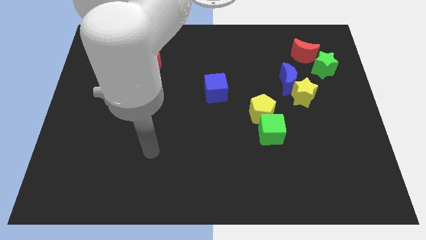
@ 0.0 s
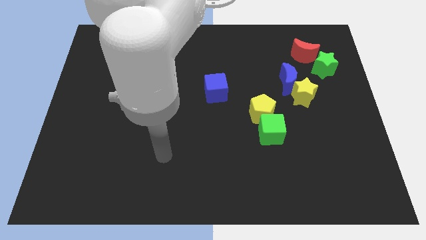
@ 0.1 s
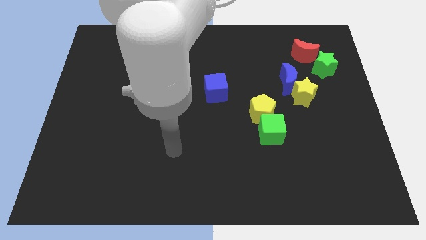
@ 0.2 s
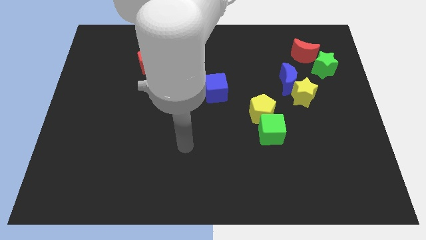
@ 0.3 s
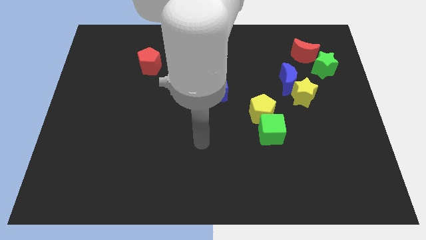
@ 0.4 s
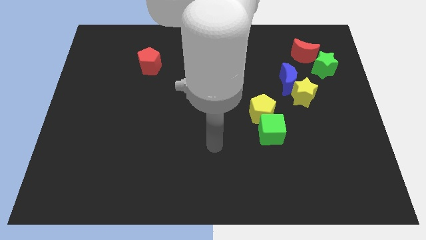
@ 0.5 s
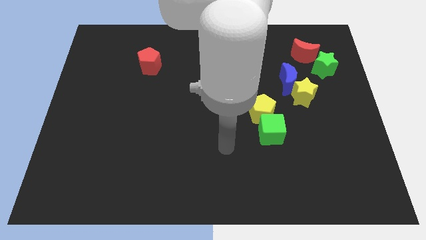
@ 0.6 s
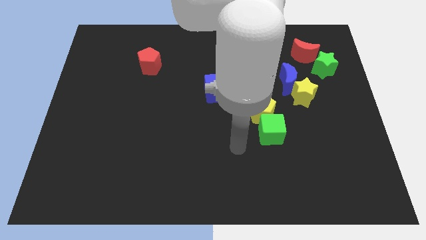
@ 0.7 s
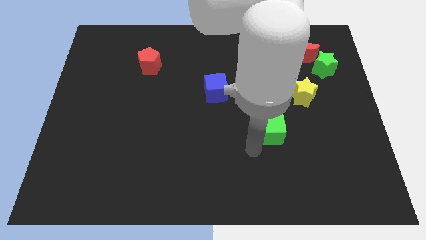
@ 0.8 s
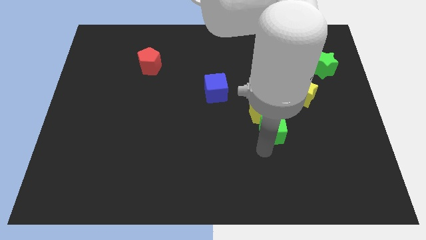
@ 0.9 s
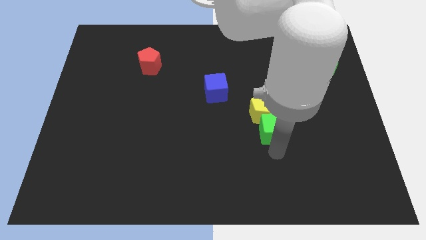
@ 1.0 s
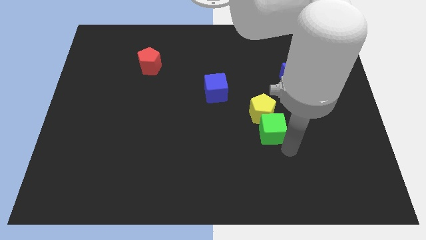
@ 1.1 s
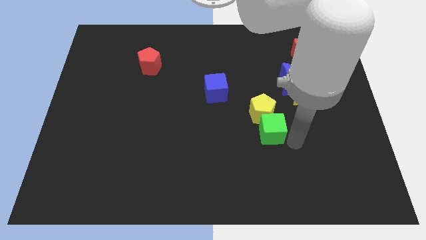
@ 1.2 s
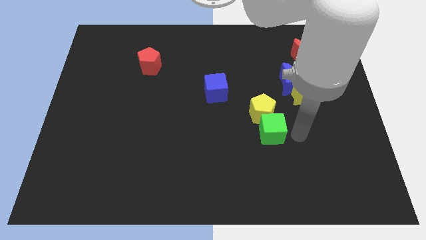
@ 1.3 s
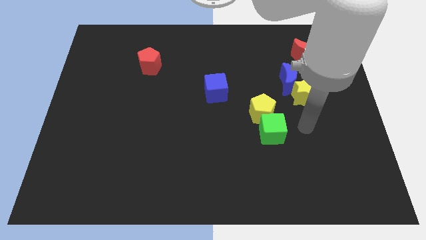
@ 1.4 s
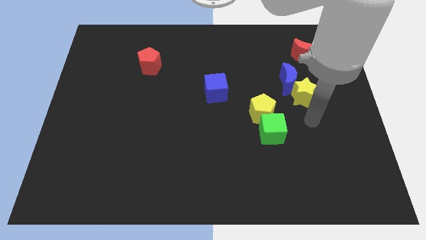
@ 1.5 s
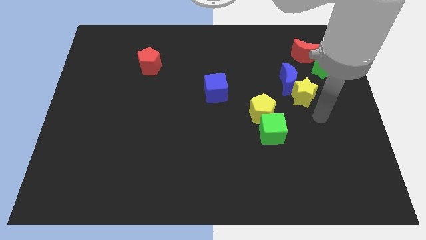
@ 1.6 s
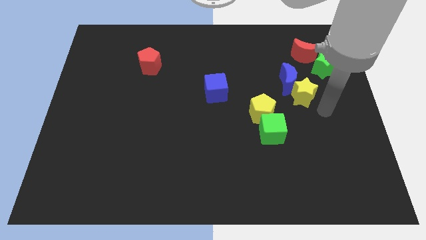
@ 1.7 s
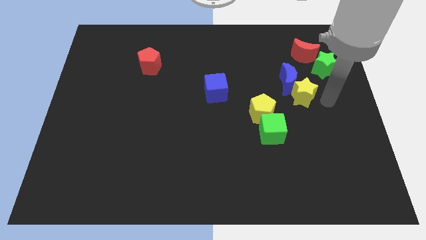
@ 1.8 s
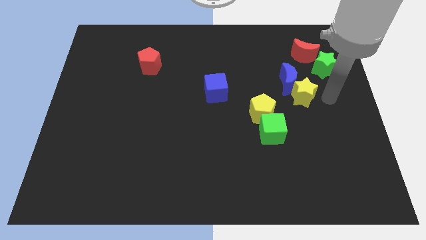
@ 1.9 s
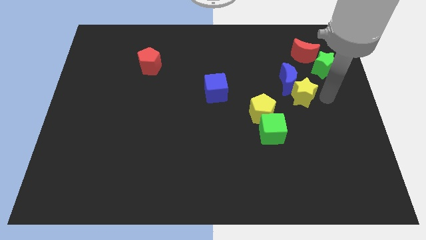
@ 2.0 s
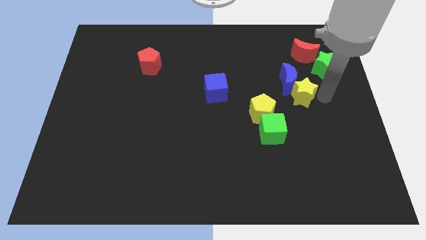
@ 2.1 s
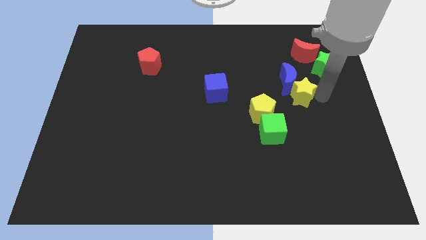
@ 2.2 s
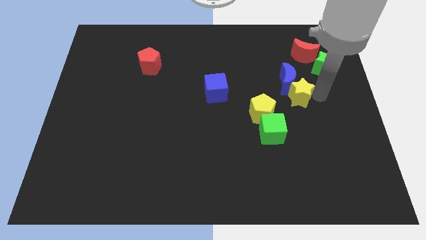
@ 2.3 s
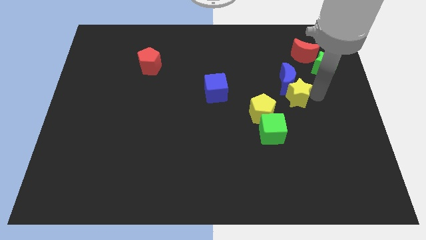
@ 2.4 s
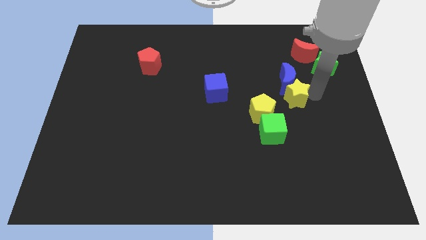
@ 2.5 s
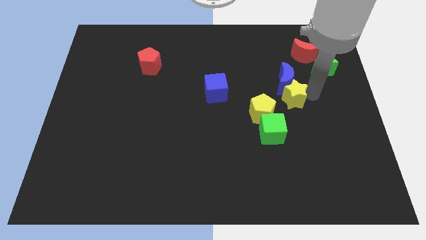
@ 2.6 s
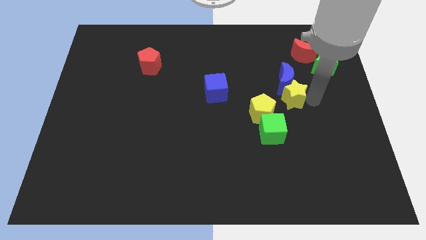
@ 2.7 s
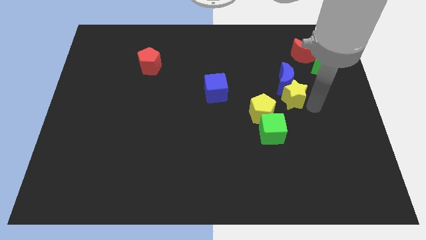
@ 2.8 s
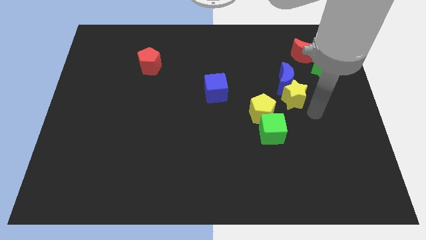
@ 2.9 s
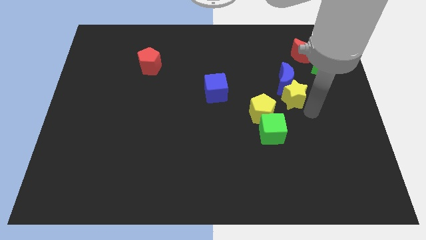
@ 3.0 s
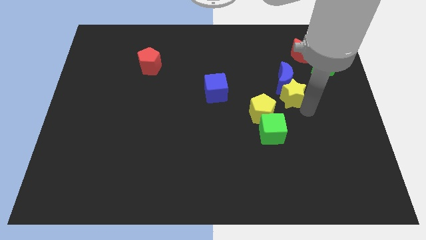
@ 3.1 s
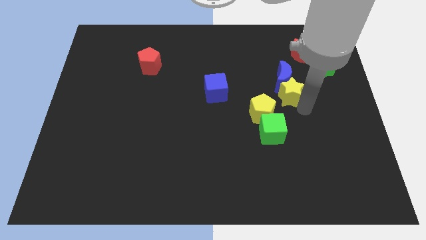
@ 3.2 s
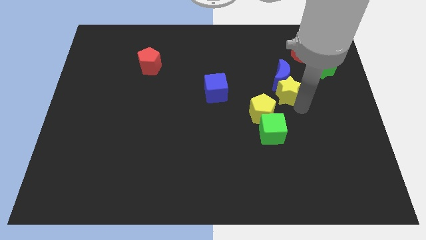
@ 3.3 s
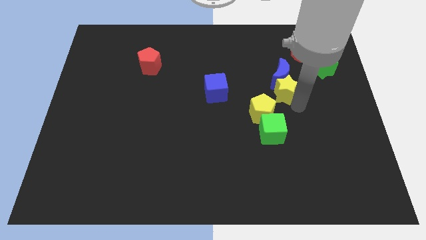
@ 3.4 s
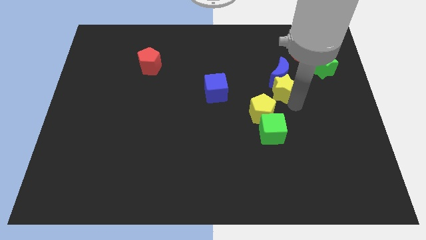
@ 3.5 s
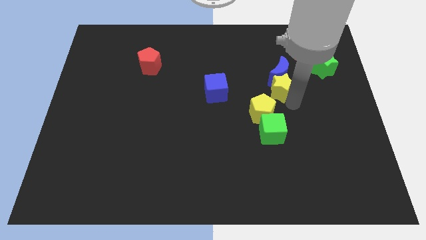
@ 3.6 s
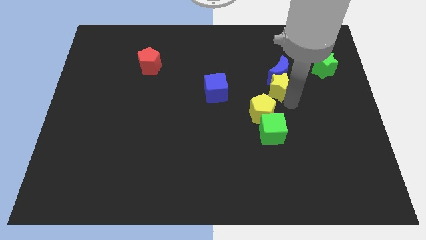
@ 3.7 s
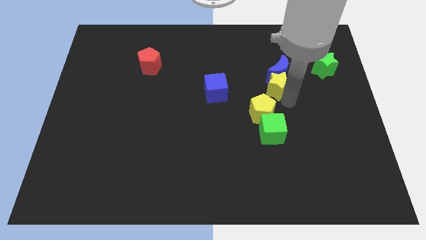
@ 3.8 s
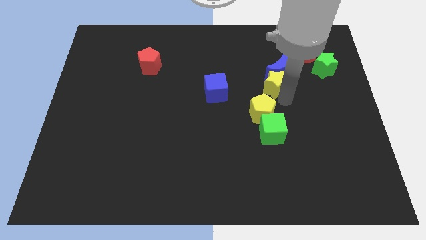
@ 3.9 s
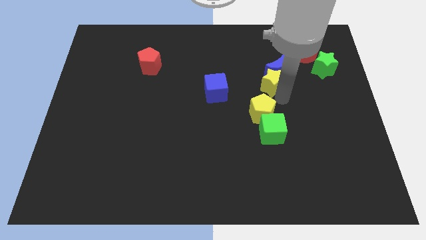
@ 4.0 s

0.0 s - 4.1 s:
push the yellow star a little bit upwards and then left

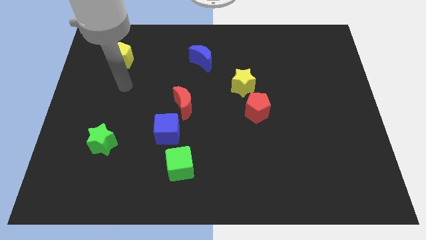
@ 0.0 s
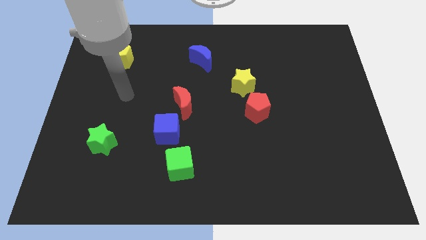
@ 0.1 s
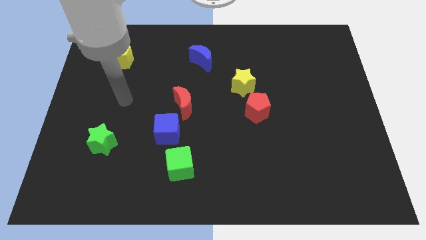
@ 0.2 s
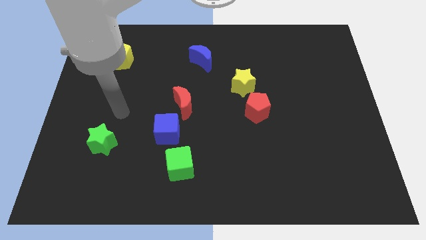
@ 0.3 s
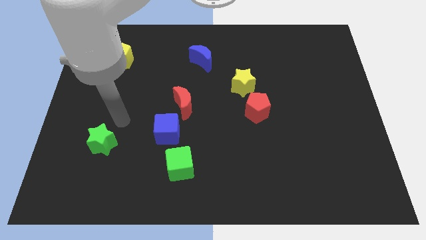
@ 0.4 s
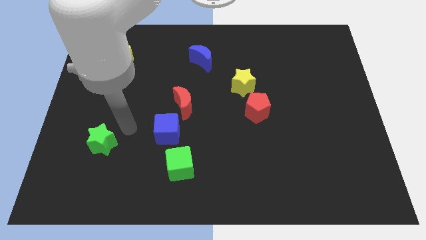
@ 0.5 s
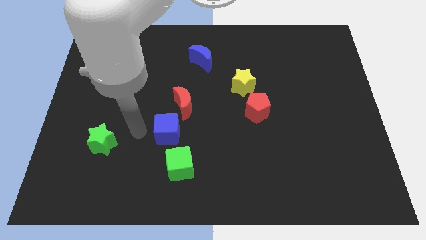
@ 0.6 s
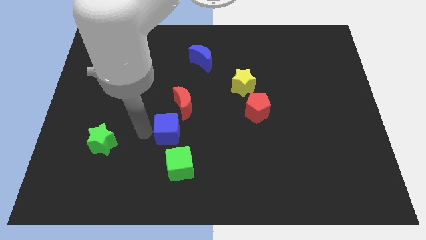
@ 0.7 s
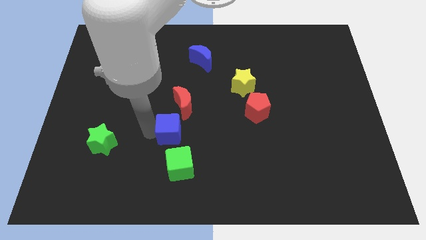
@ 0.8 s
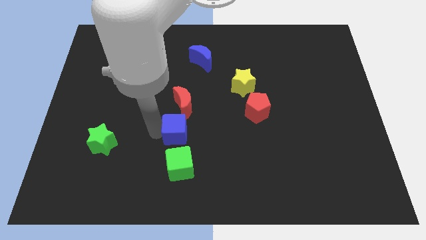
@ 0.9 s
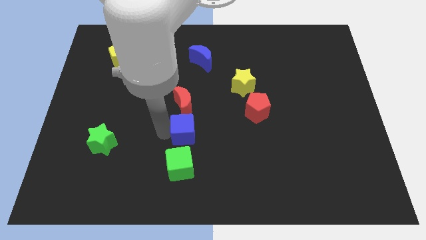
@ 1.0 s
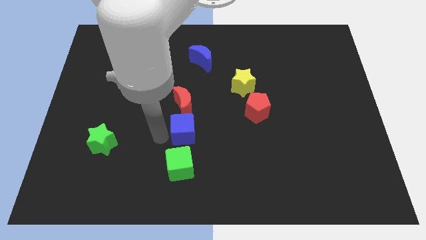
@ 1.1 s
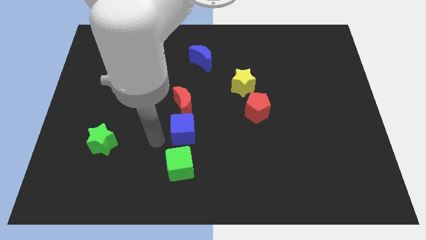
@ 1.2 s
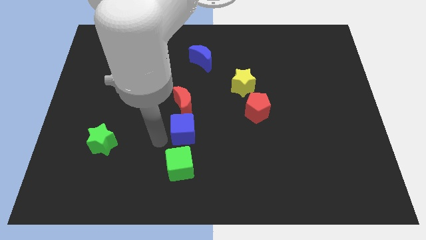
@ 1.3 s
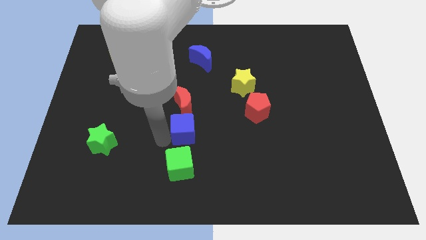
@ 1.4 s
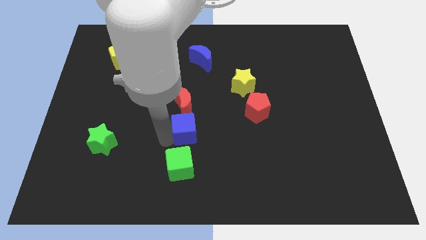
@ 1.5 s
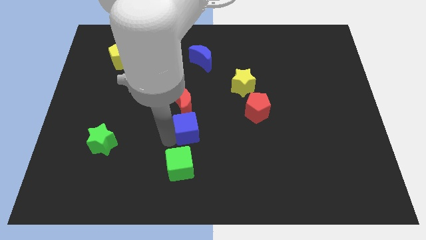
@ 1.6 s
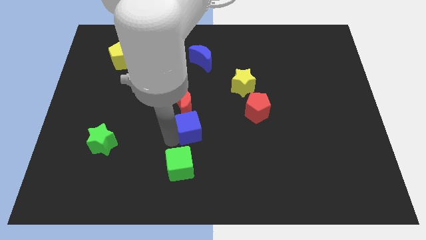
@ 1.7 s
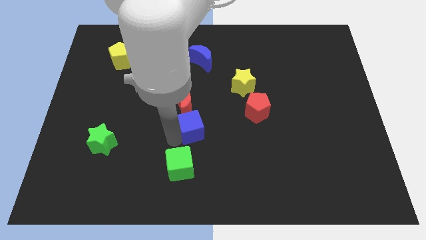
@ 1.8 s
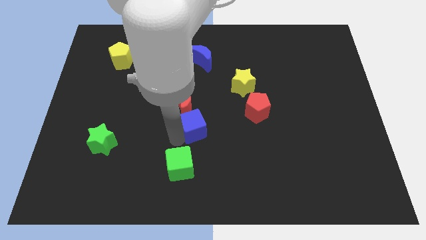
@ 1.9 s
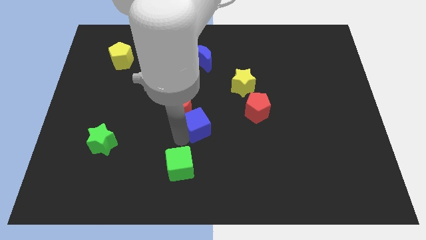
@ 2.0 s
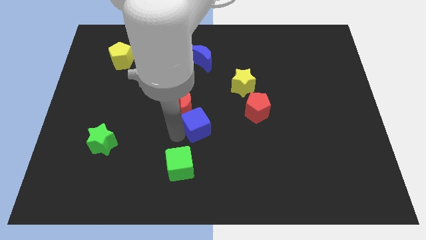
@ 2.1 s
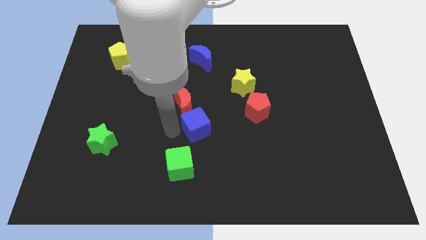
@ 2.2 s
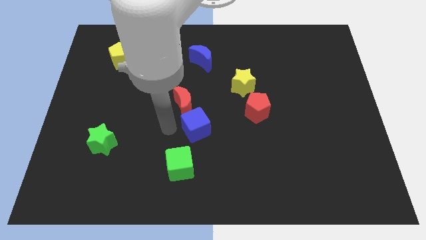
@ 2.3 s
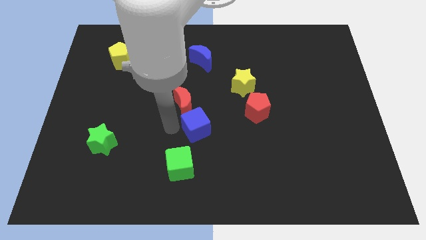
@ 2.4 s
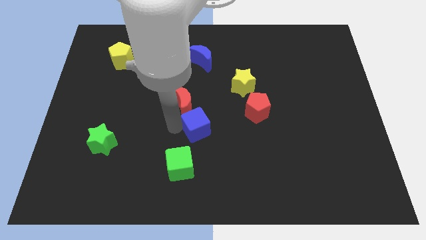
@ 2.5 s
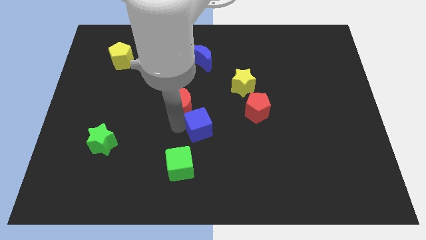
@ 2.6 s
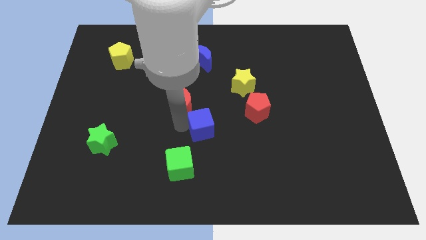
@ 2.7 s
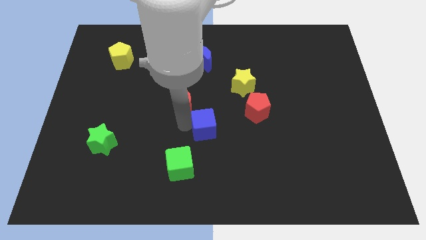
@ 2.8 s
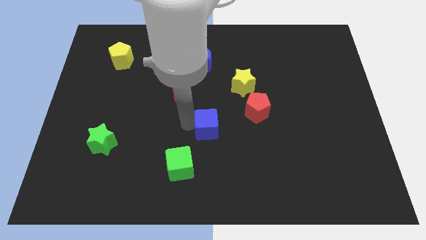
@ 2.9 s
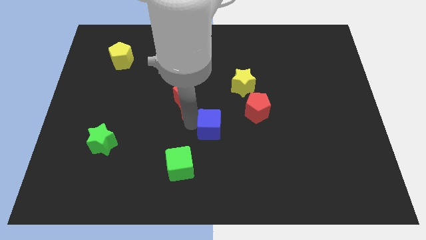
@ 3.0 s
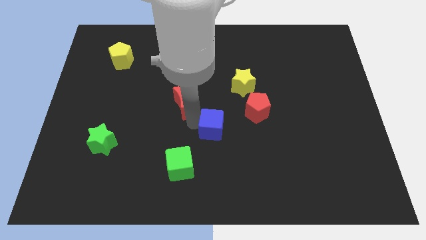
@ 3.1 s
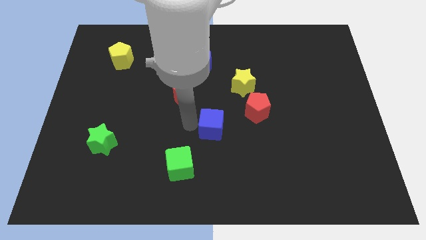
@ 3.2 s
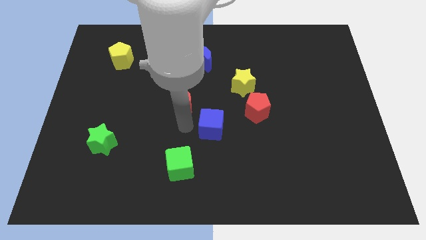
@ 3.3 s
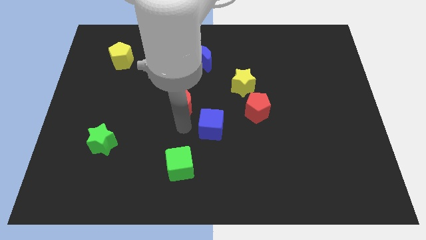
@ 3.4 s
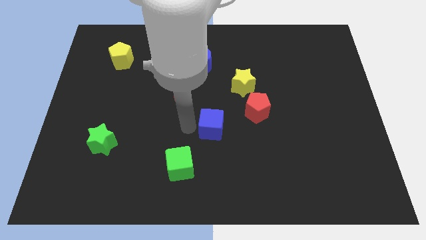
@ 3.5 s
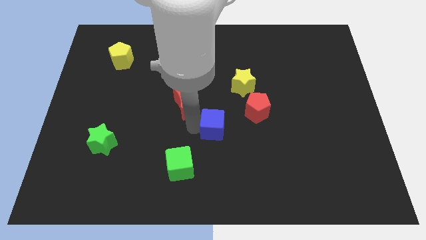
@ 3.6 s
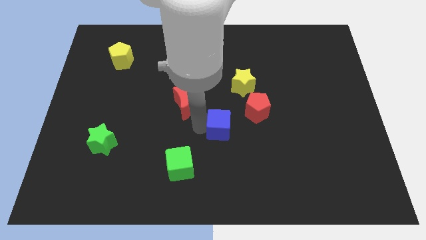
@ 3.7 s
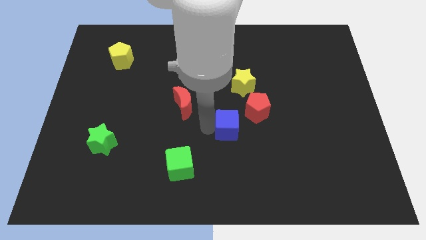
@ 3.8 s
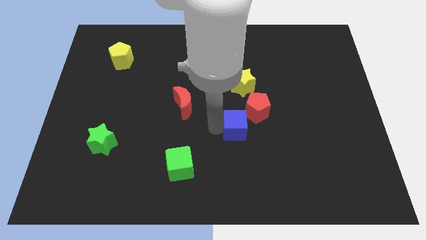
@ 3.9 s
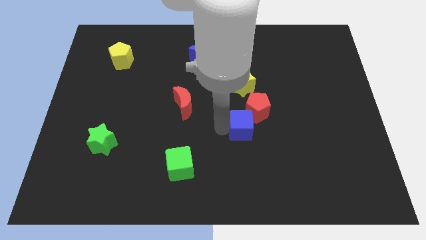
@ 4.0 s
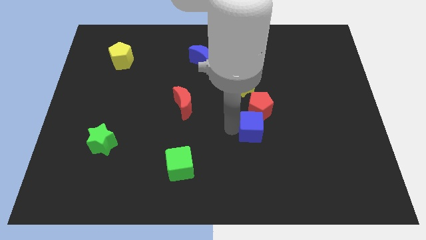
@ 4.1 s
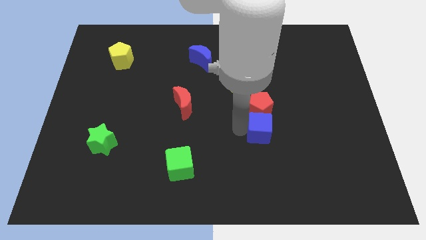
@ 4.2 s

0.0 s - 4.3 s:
slide the blue cube right
